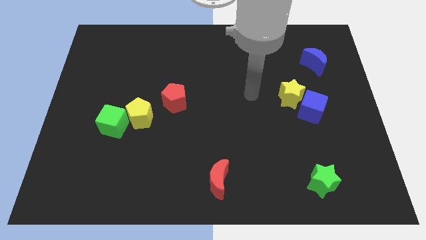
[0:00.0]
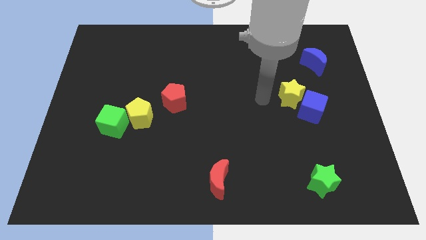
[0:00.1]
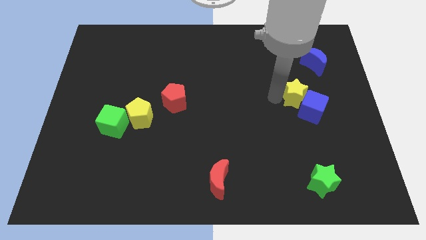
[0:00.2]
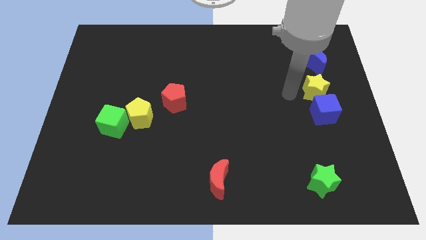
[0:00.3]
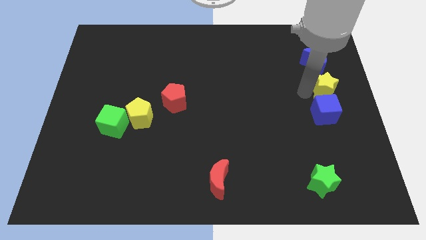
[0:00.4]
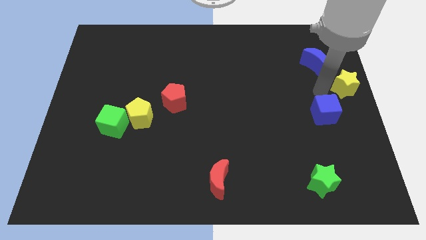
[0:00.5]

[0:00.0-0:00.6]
move the blue cube away from the yellow star

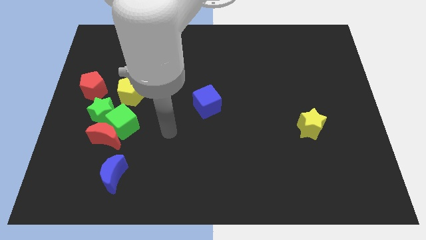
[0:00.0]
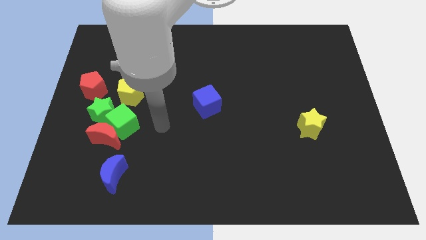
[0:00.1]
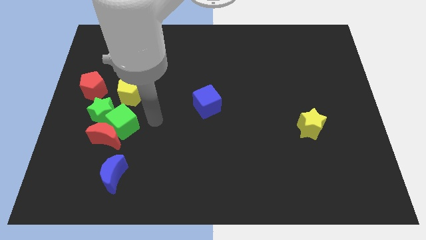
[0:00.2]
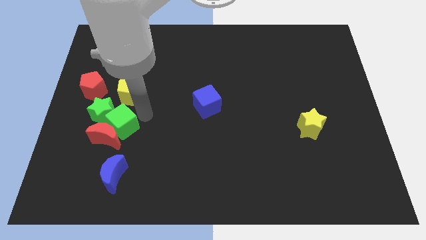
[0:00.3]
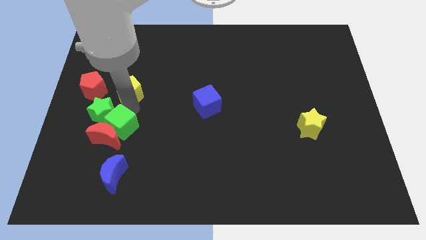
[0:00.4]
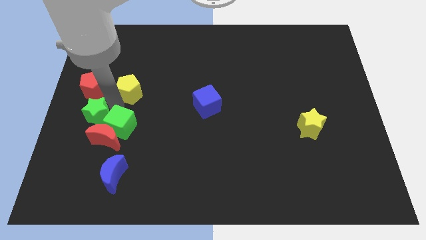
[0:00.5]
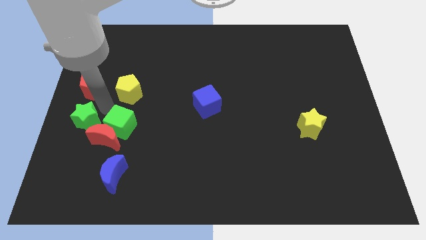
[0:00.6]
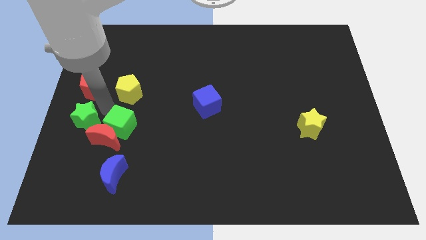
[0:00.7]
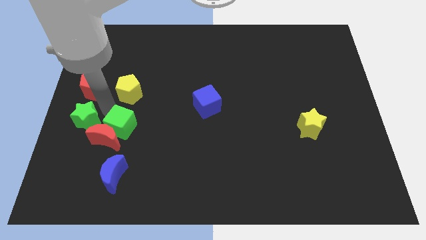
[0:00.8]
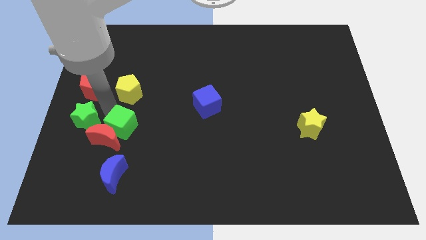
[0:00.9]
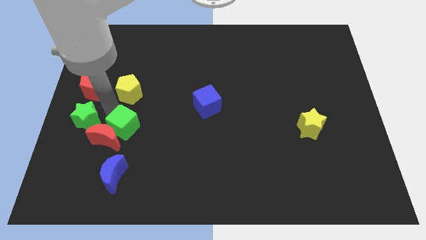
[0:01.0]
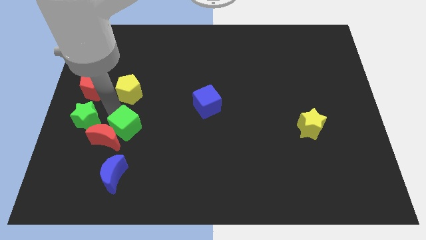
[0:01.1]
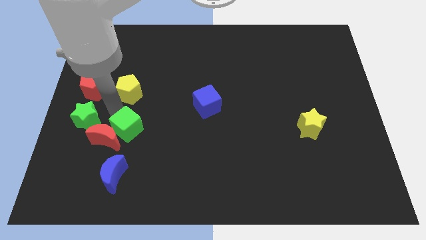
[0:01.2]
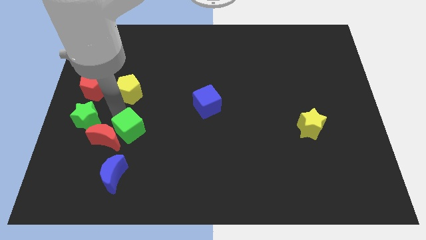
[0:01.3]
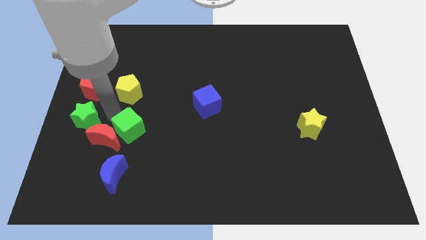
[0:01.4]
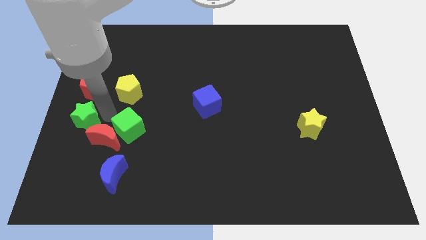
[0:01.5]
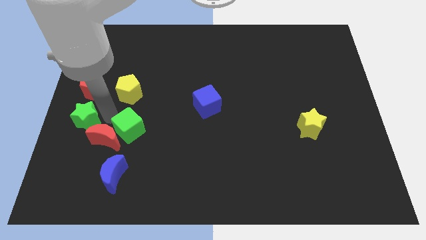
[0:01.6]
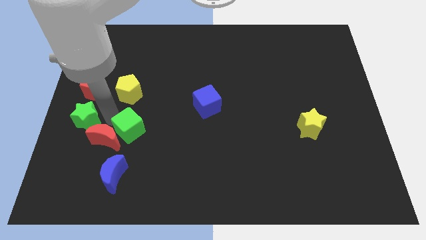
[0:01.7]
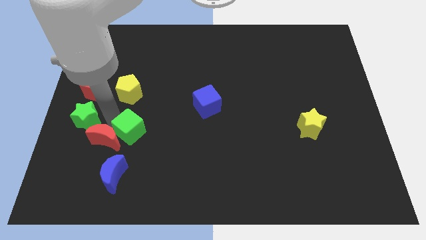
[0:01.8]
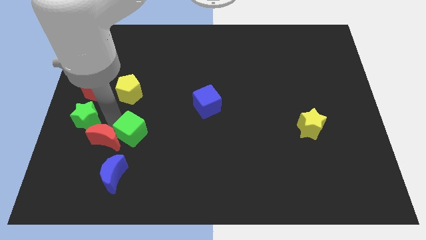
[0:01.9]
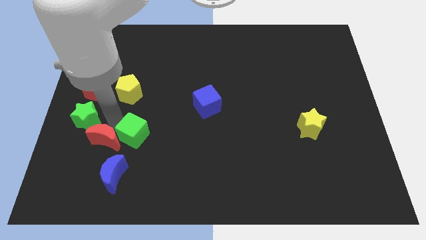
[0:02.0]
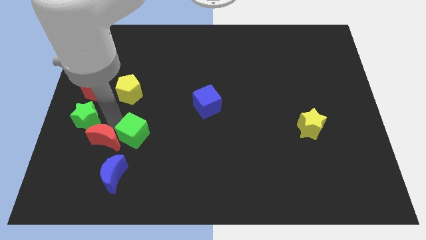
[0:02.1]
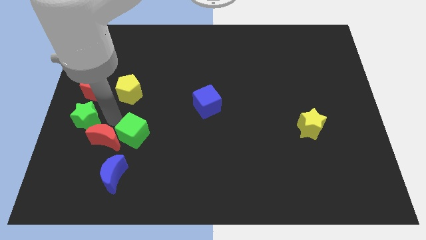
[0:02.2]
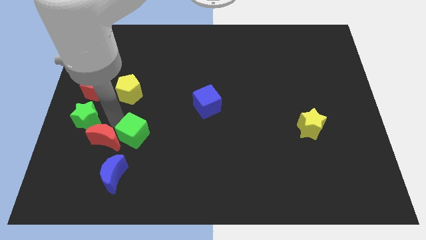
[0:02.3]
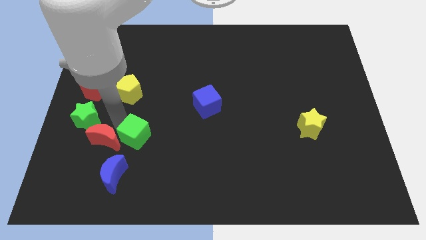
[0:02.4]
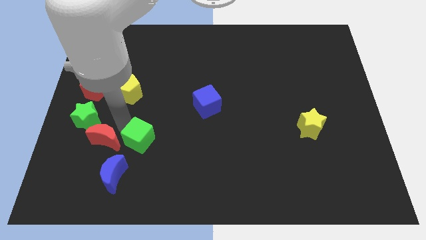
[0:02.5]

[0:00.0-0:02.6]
pull the green cube apart from the group of blocks

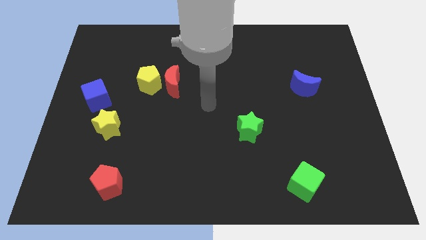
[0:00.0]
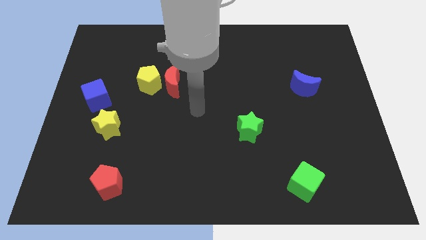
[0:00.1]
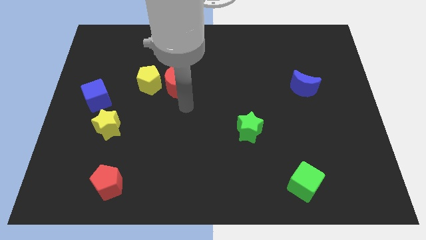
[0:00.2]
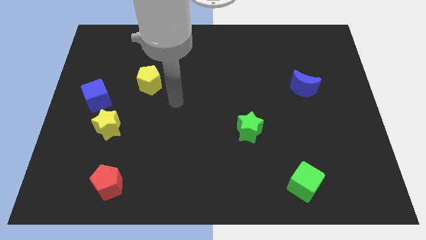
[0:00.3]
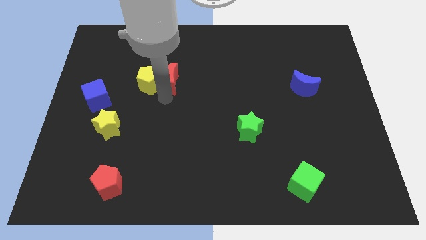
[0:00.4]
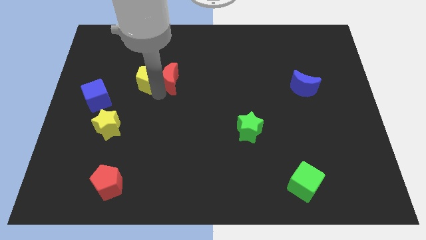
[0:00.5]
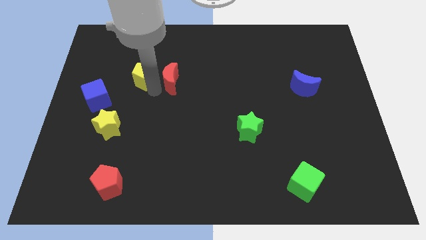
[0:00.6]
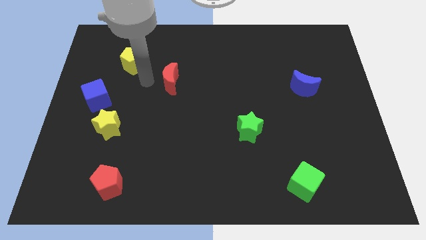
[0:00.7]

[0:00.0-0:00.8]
separate the red moon from the yellow pentagon

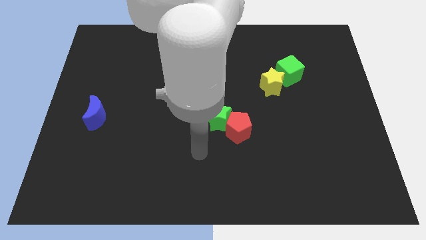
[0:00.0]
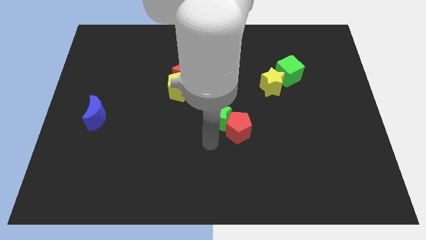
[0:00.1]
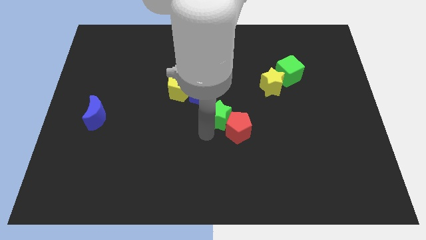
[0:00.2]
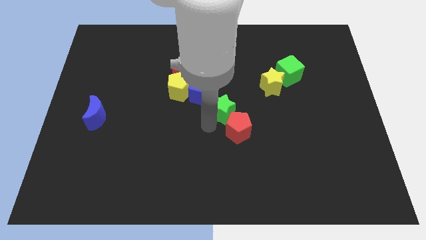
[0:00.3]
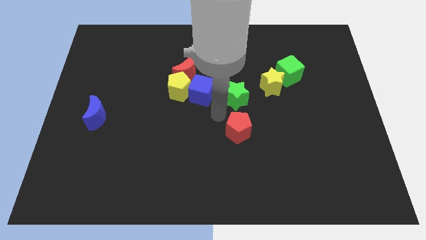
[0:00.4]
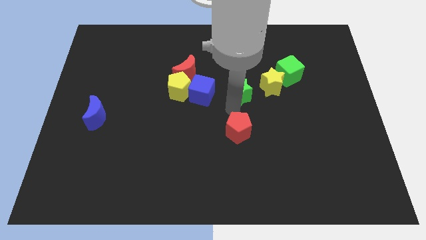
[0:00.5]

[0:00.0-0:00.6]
separate the red pentagon from the green star

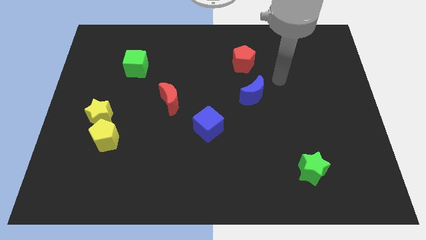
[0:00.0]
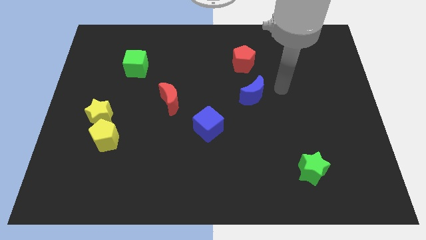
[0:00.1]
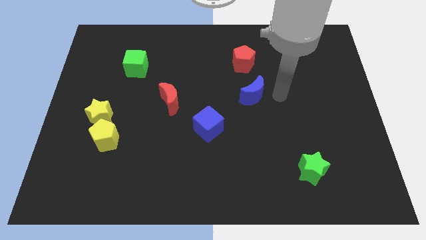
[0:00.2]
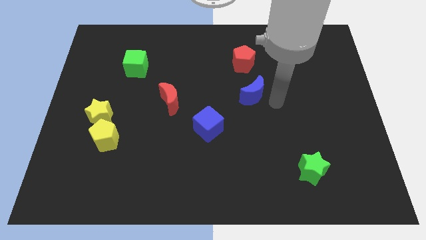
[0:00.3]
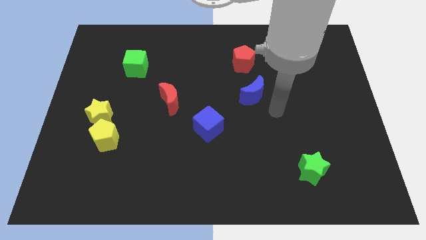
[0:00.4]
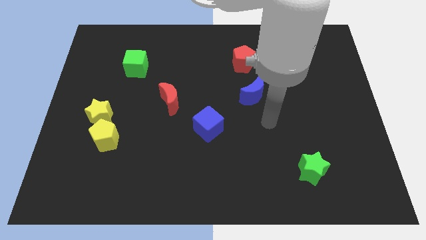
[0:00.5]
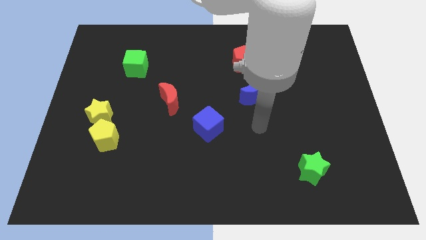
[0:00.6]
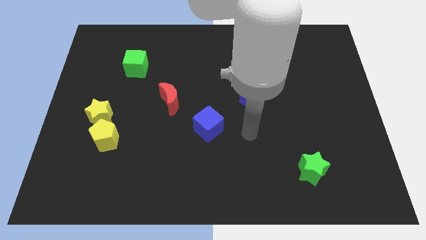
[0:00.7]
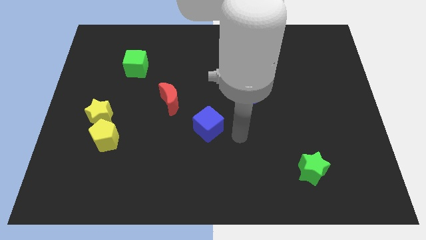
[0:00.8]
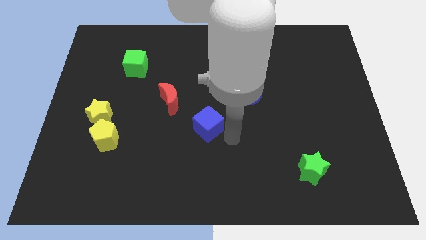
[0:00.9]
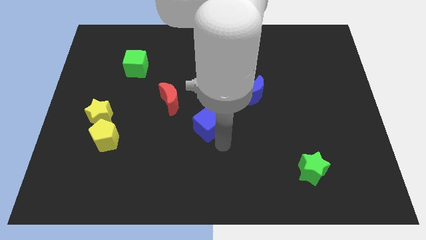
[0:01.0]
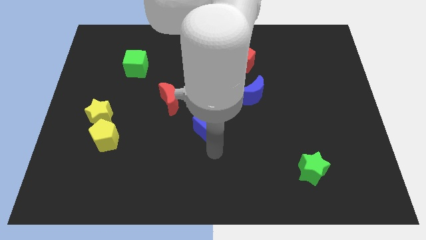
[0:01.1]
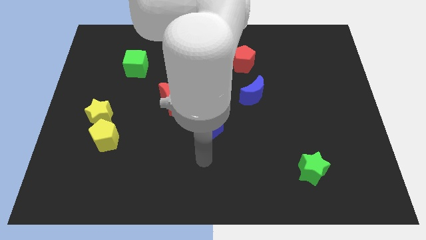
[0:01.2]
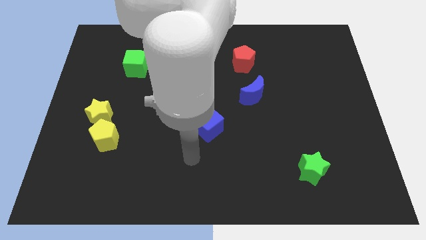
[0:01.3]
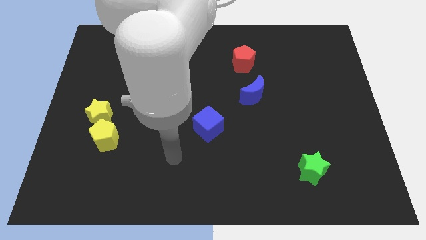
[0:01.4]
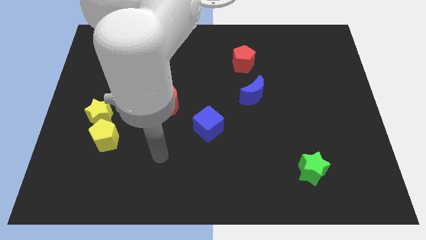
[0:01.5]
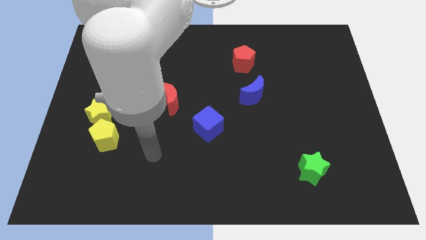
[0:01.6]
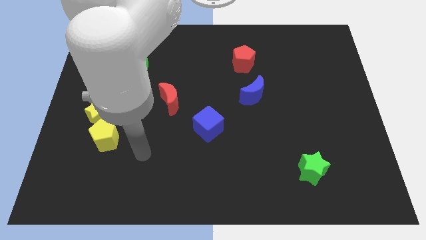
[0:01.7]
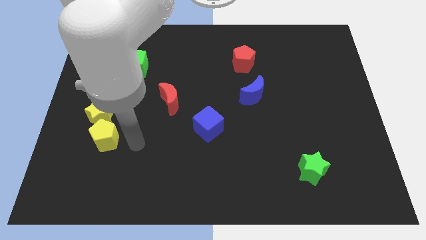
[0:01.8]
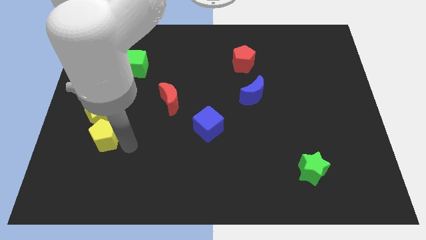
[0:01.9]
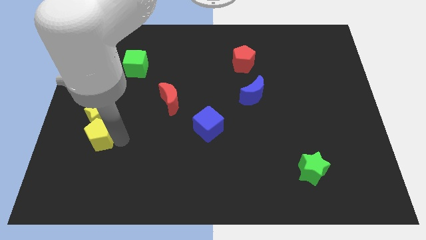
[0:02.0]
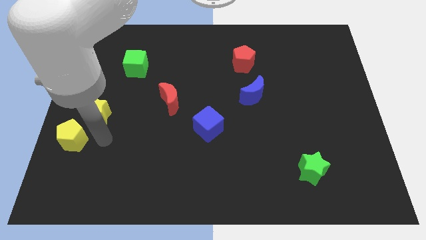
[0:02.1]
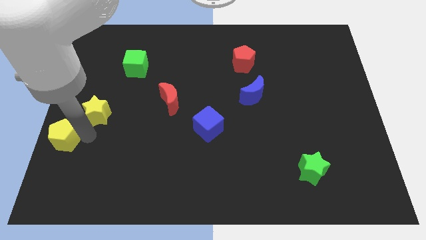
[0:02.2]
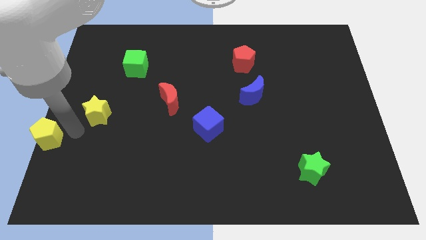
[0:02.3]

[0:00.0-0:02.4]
move the yellow star away from the yellow pentagon

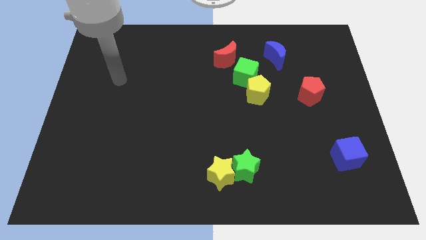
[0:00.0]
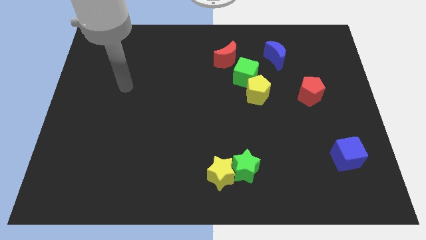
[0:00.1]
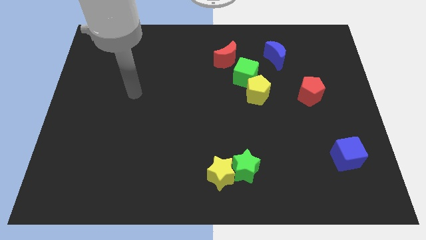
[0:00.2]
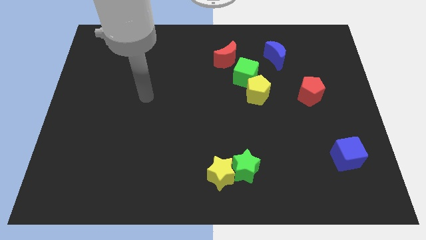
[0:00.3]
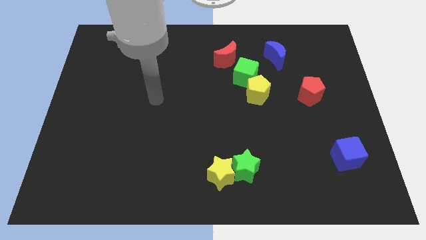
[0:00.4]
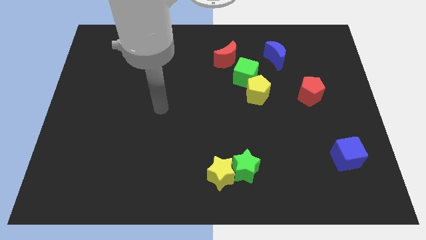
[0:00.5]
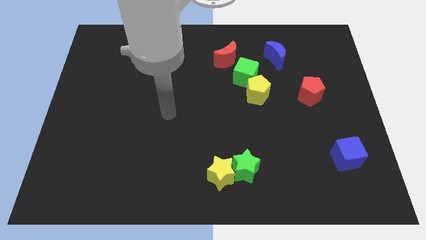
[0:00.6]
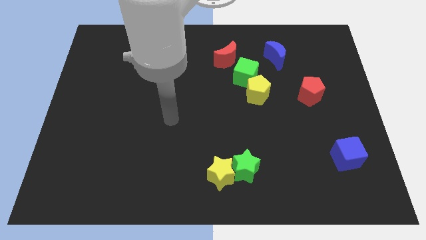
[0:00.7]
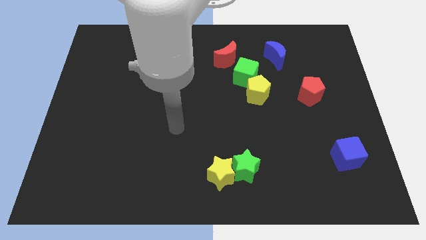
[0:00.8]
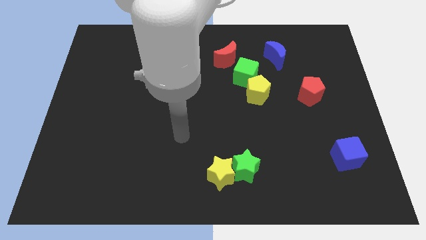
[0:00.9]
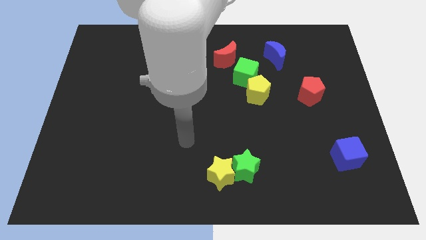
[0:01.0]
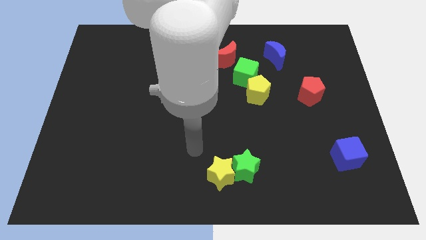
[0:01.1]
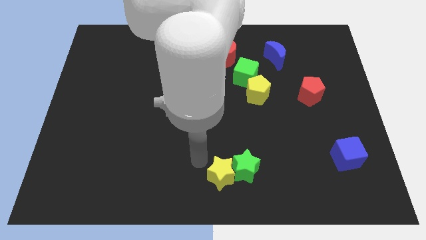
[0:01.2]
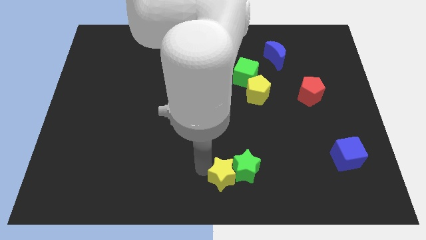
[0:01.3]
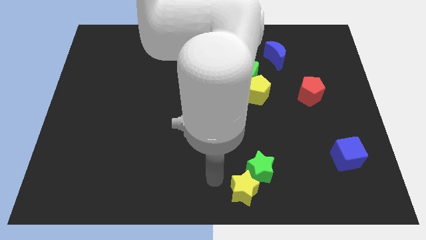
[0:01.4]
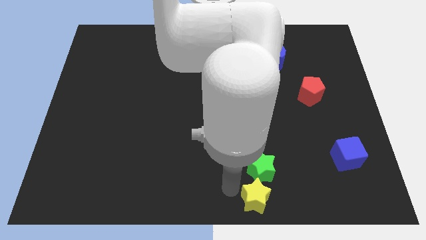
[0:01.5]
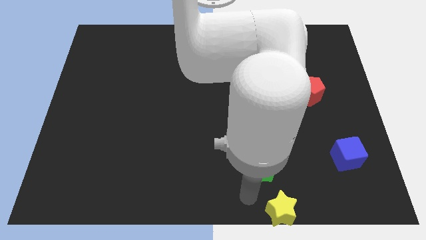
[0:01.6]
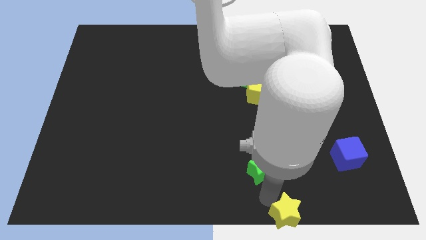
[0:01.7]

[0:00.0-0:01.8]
separate the green star from the yellow star

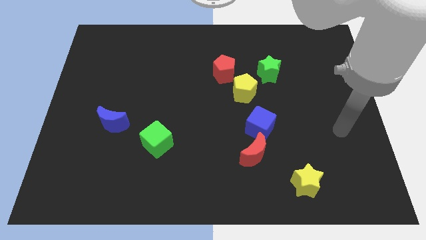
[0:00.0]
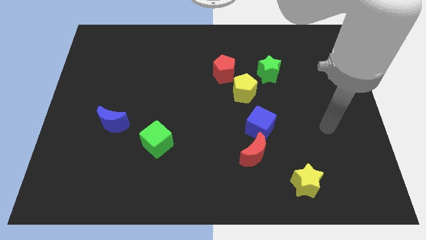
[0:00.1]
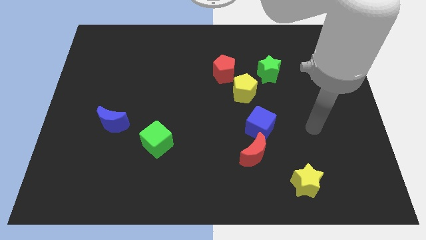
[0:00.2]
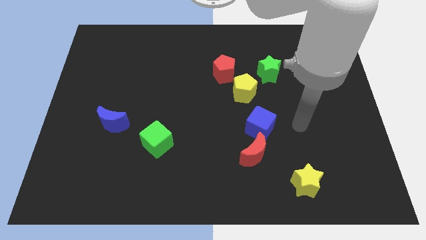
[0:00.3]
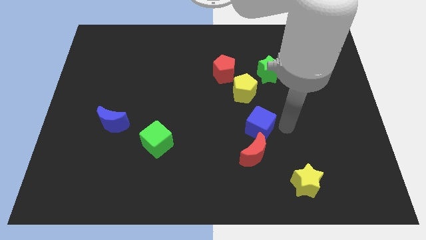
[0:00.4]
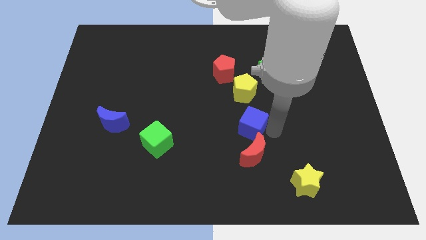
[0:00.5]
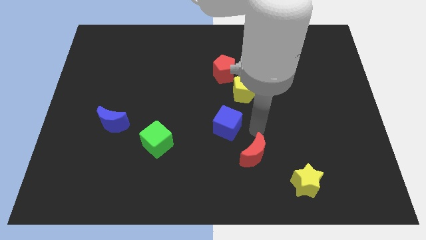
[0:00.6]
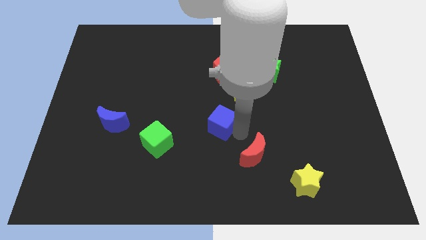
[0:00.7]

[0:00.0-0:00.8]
separate the red moon from the blue cube
